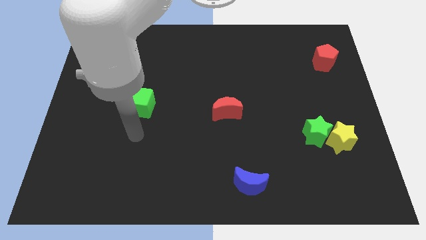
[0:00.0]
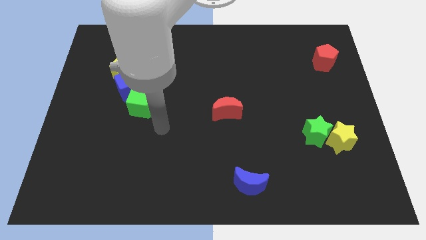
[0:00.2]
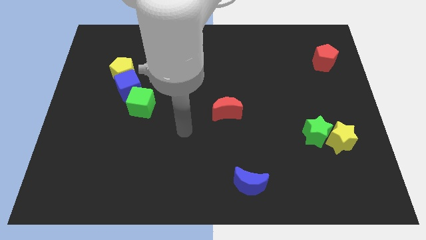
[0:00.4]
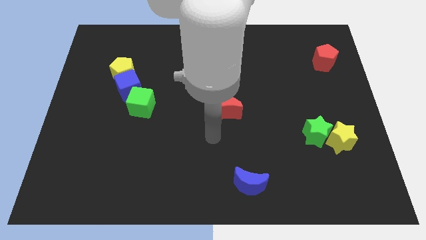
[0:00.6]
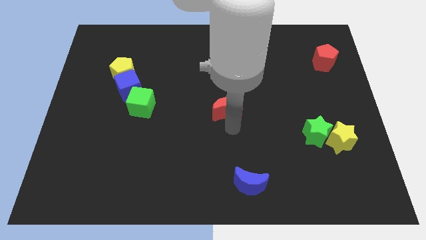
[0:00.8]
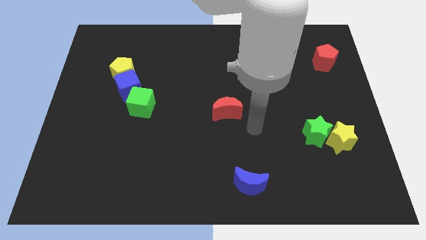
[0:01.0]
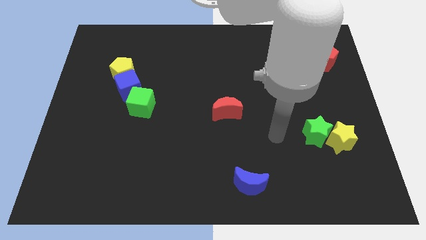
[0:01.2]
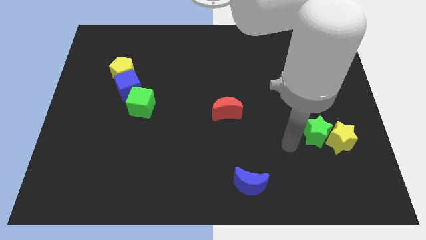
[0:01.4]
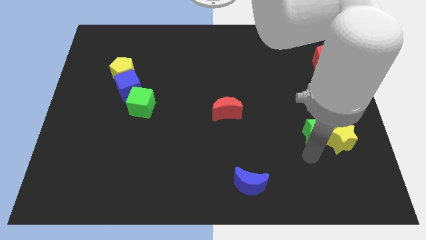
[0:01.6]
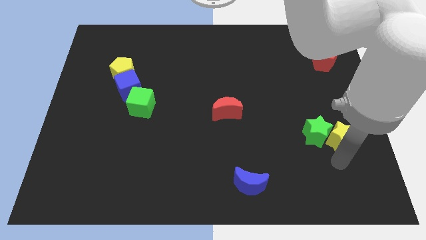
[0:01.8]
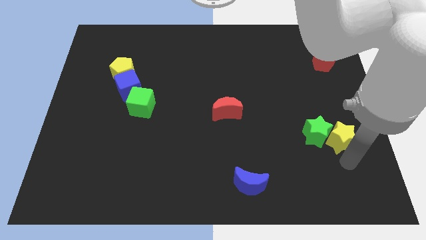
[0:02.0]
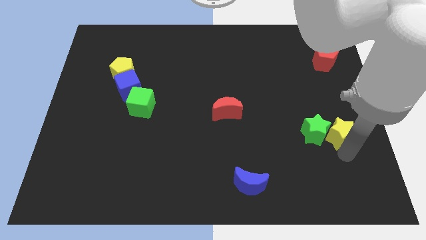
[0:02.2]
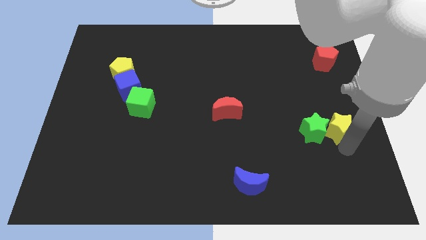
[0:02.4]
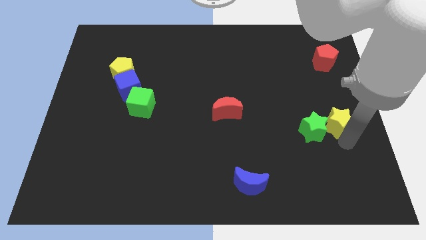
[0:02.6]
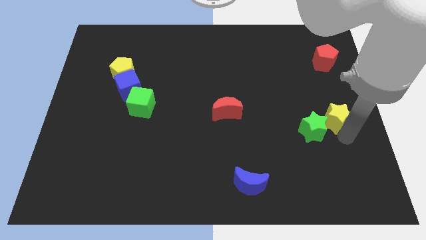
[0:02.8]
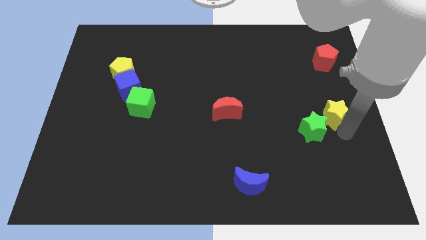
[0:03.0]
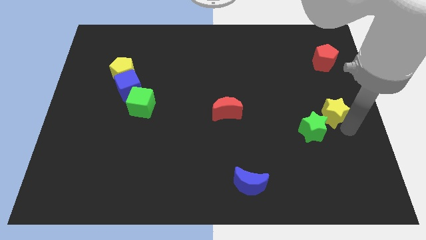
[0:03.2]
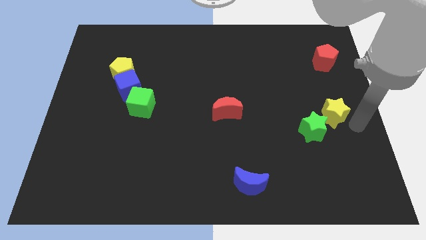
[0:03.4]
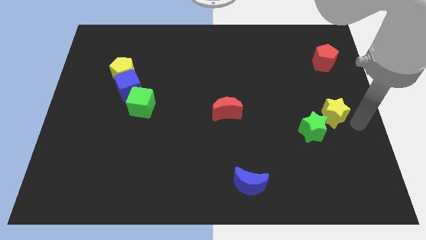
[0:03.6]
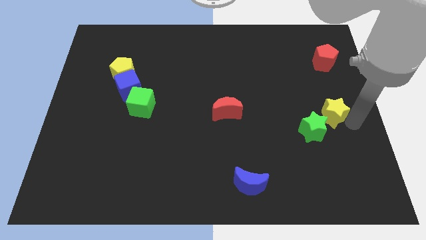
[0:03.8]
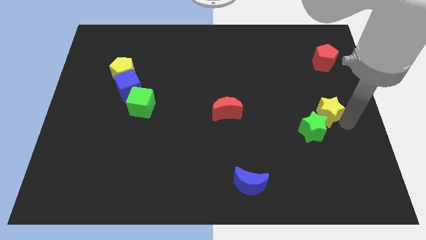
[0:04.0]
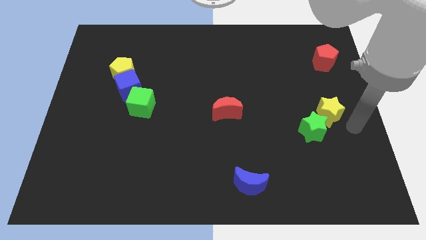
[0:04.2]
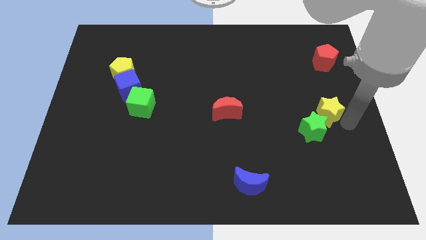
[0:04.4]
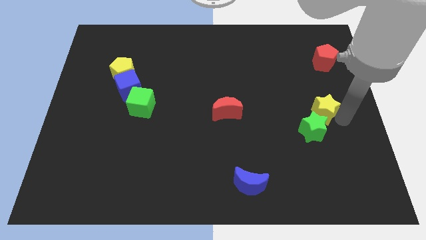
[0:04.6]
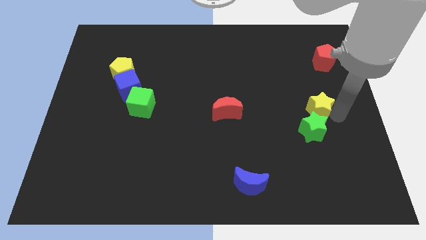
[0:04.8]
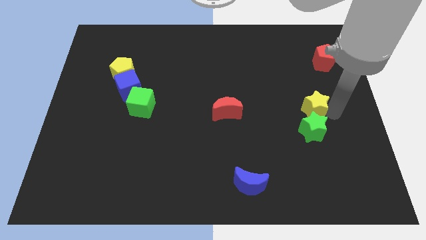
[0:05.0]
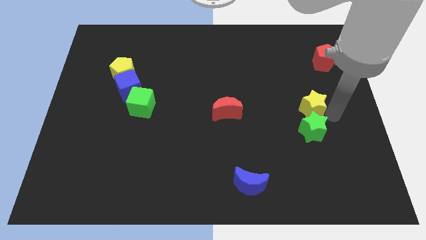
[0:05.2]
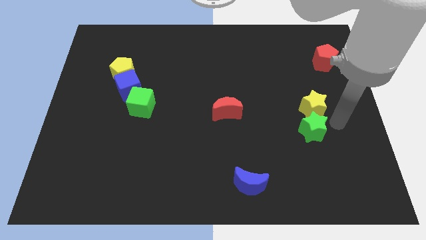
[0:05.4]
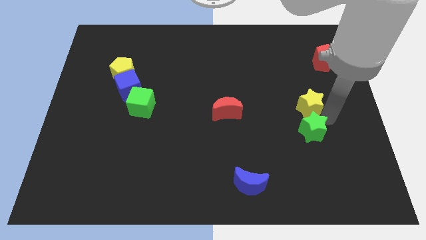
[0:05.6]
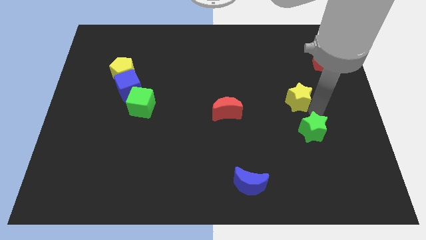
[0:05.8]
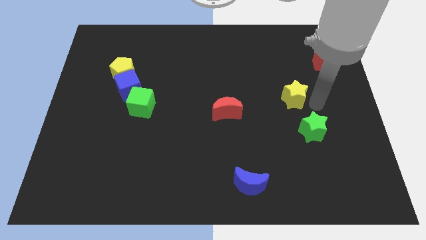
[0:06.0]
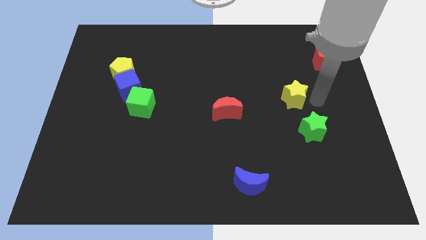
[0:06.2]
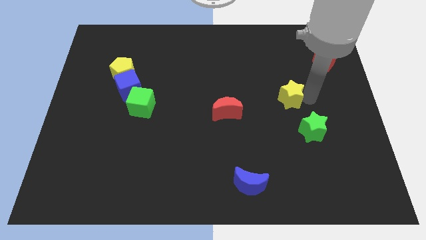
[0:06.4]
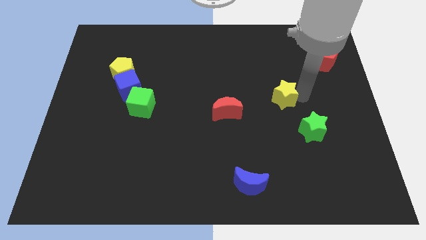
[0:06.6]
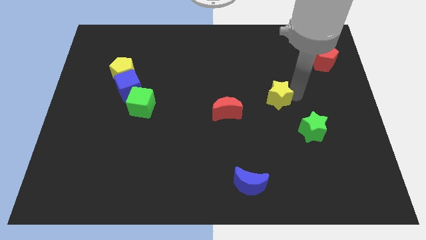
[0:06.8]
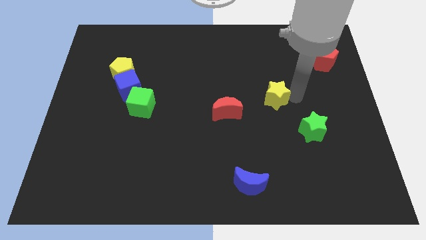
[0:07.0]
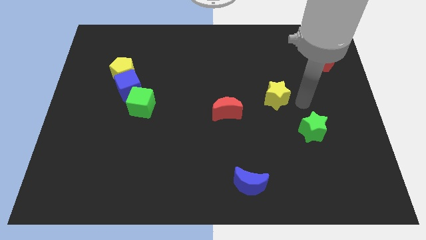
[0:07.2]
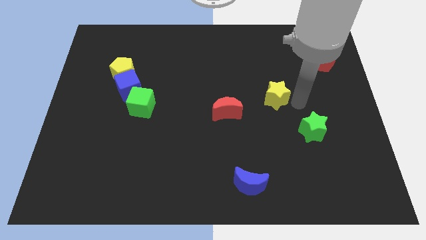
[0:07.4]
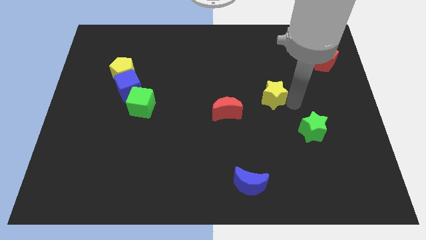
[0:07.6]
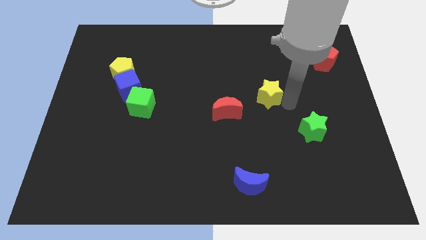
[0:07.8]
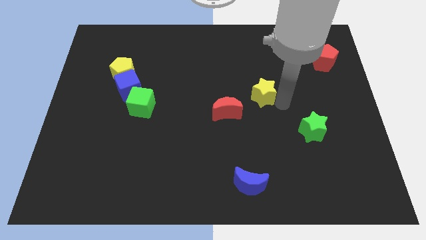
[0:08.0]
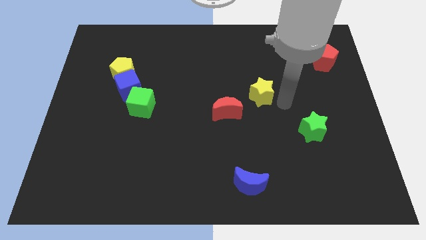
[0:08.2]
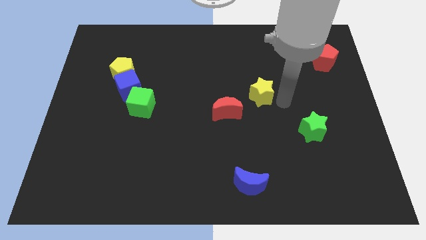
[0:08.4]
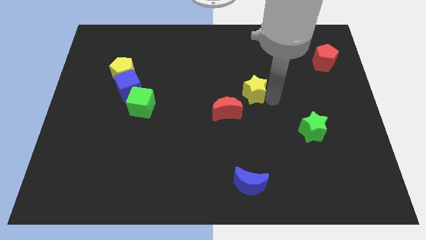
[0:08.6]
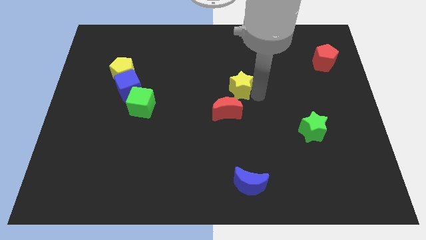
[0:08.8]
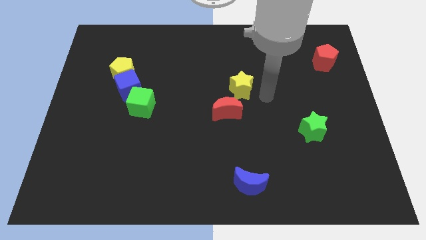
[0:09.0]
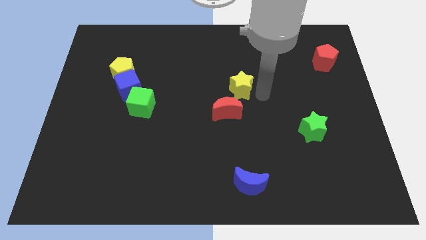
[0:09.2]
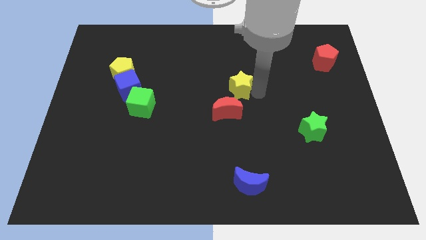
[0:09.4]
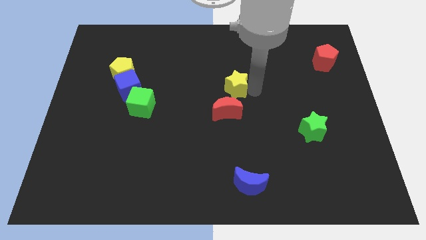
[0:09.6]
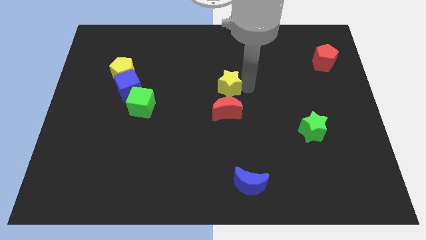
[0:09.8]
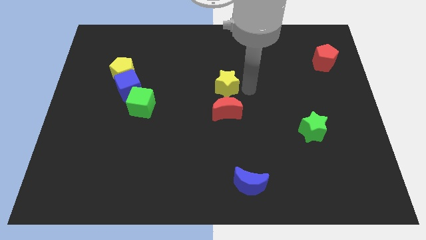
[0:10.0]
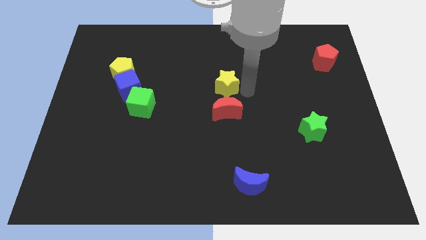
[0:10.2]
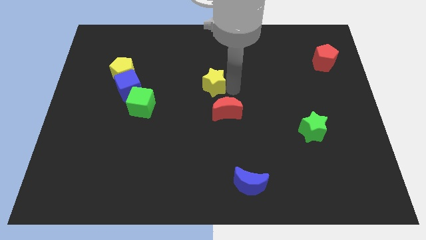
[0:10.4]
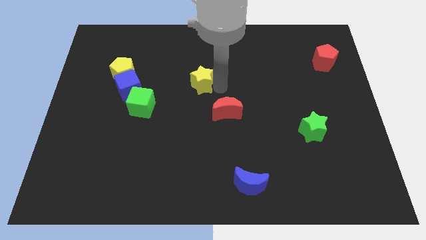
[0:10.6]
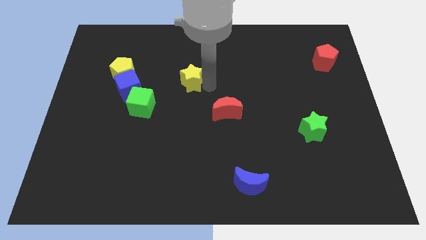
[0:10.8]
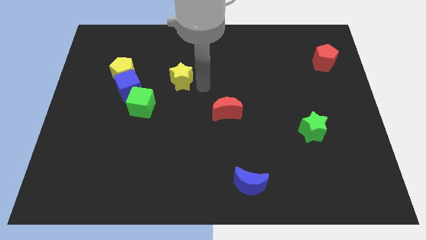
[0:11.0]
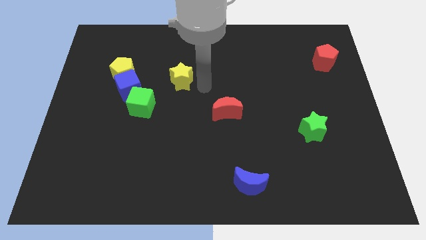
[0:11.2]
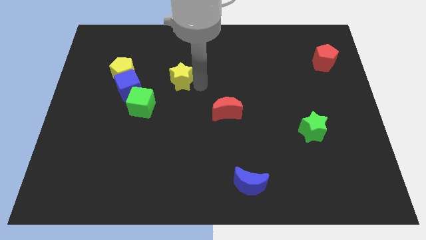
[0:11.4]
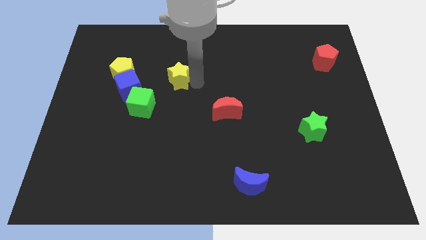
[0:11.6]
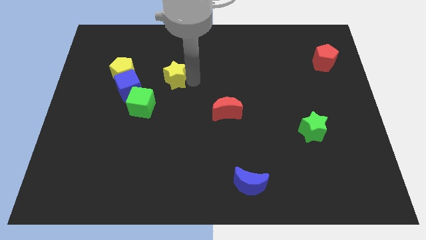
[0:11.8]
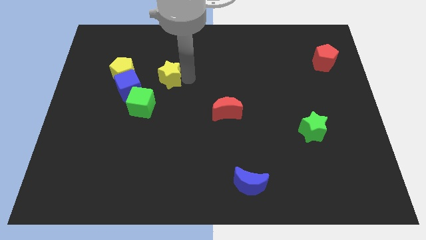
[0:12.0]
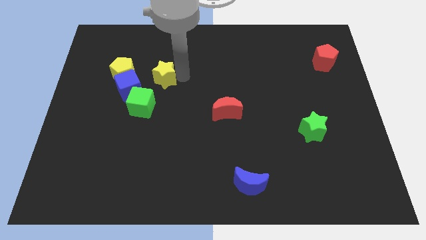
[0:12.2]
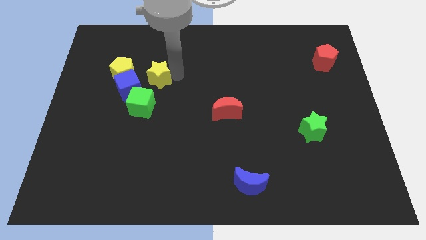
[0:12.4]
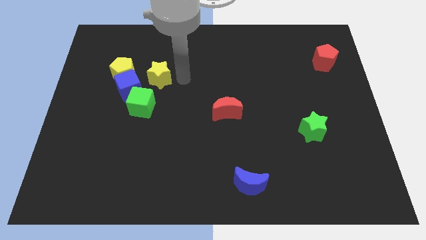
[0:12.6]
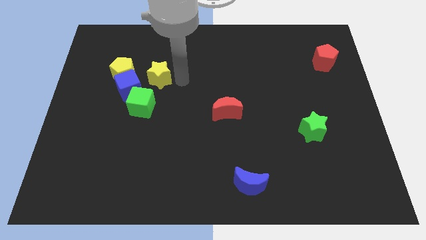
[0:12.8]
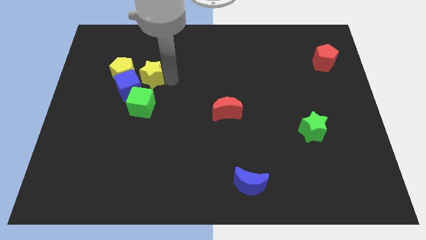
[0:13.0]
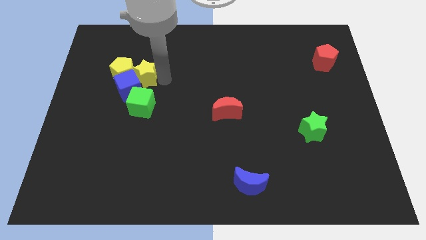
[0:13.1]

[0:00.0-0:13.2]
slide the yellow star towards the yellow pentagon

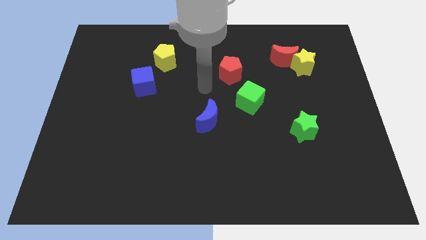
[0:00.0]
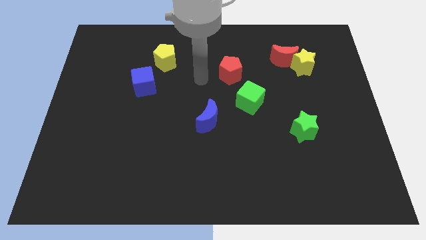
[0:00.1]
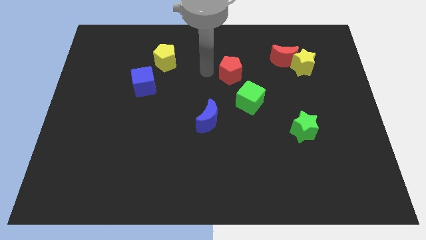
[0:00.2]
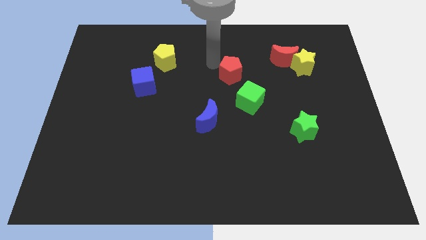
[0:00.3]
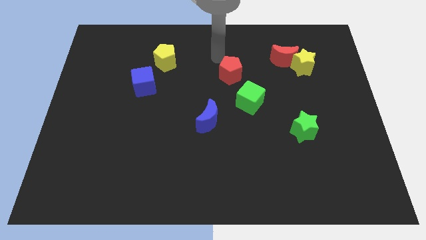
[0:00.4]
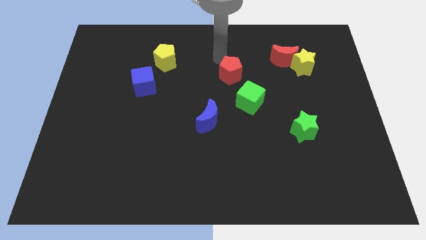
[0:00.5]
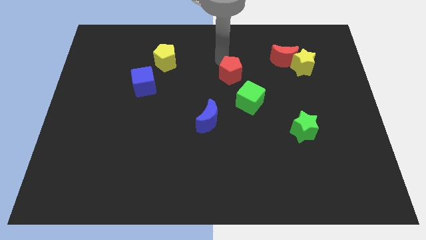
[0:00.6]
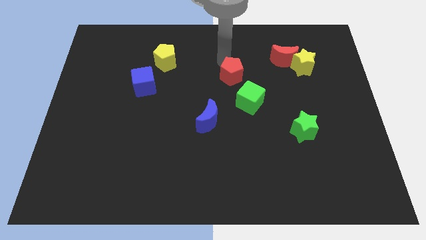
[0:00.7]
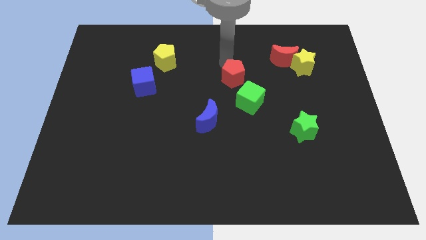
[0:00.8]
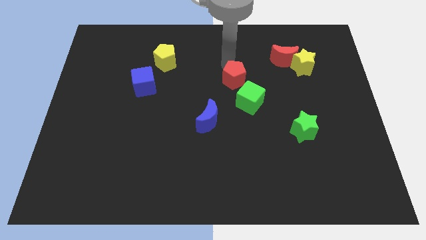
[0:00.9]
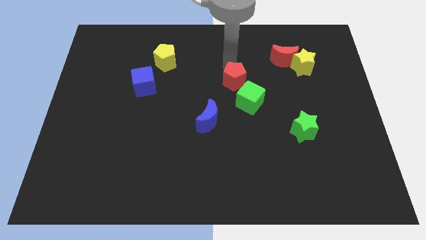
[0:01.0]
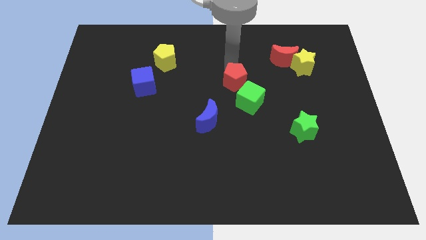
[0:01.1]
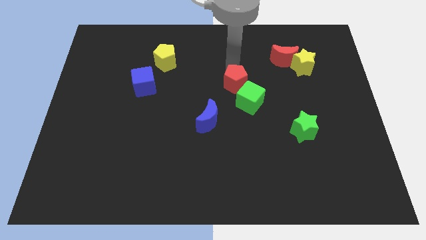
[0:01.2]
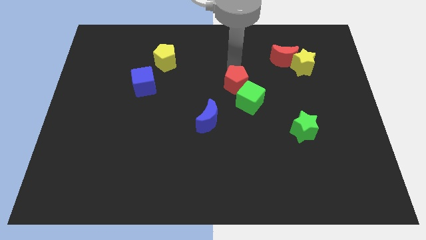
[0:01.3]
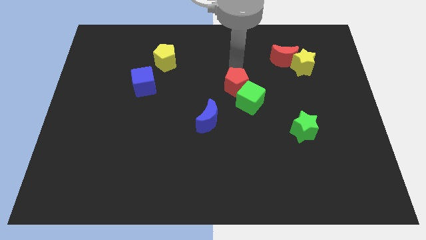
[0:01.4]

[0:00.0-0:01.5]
move the red pentagon next to the green cube
